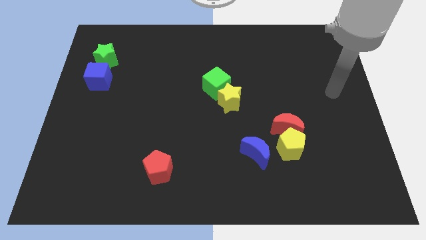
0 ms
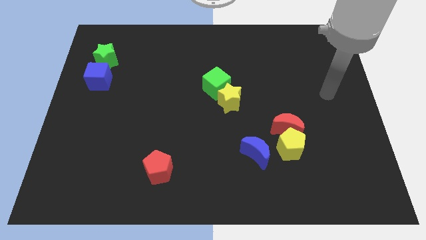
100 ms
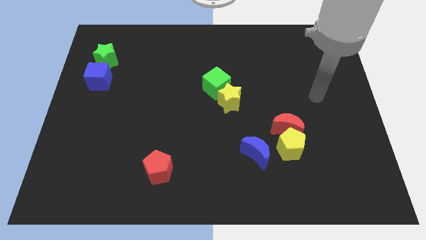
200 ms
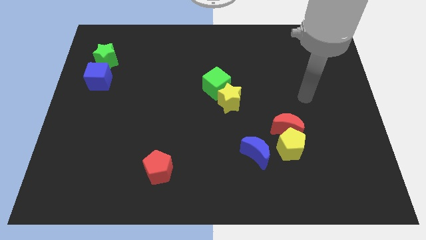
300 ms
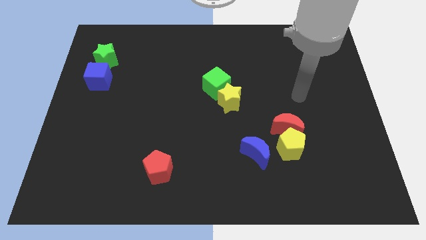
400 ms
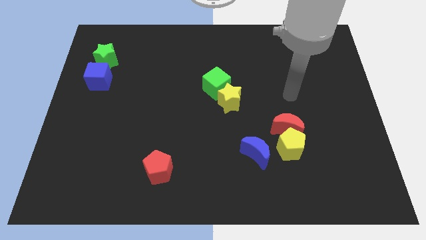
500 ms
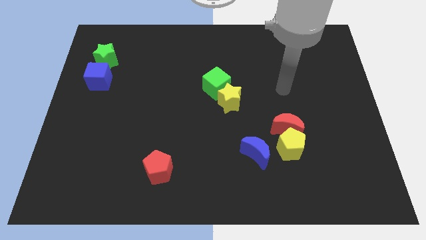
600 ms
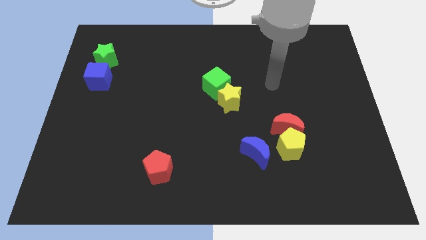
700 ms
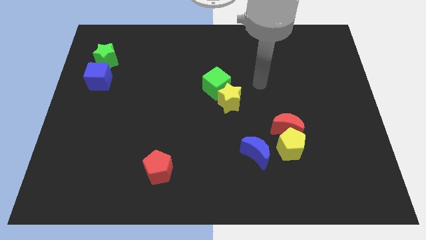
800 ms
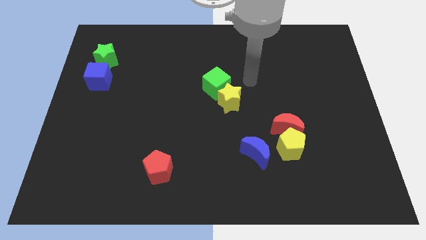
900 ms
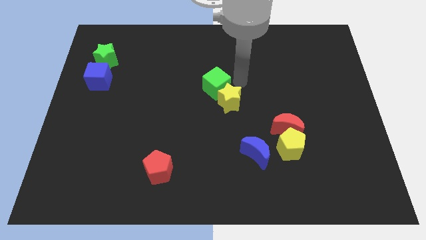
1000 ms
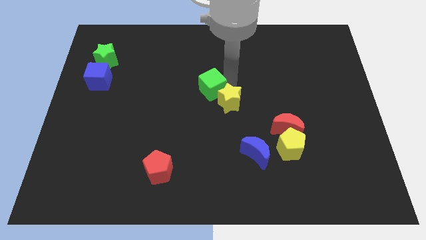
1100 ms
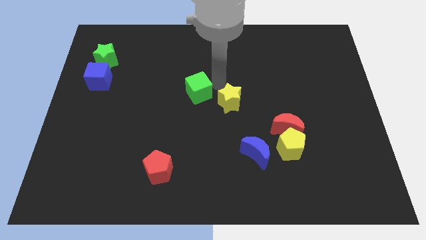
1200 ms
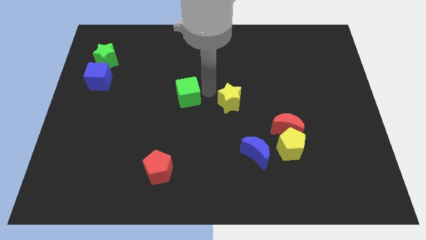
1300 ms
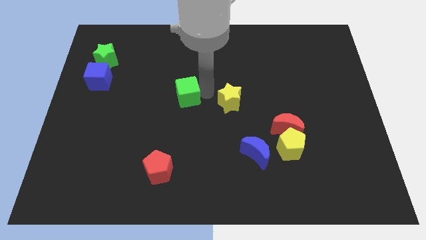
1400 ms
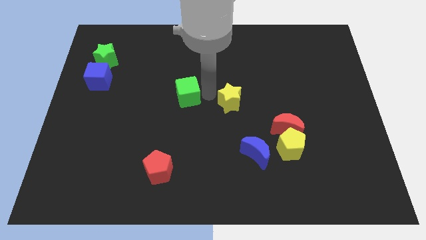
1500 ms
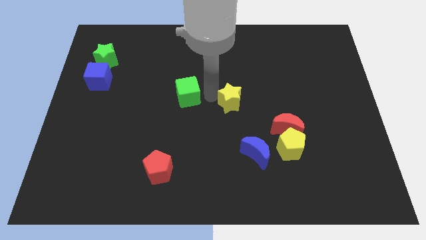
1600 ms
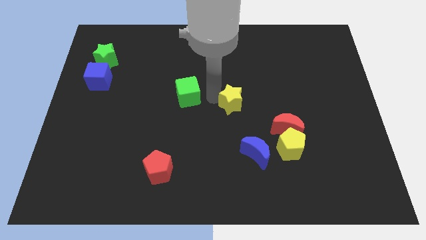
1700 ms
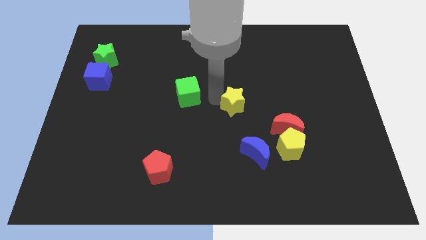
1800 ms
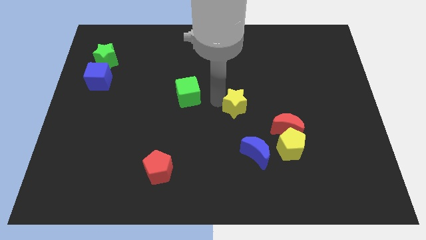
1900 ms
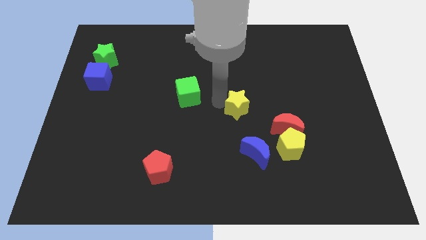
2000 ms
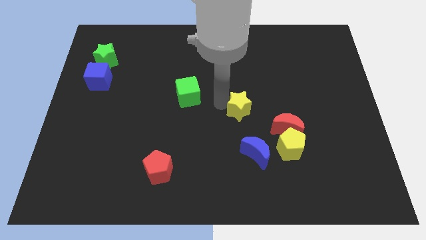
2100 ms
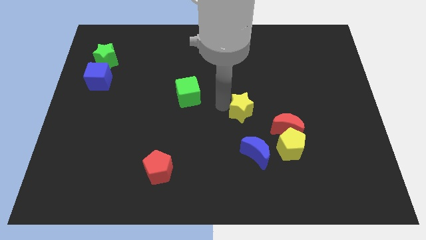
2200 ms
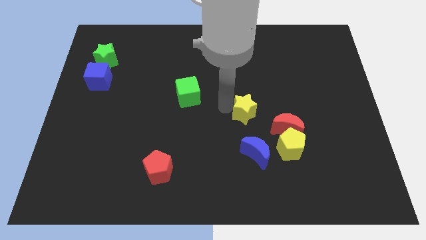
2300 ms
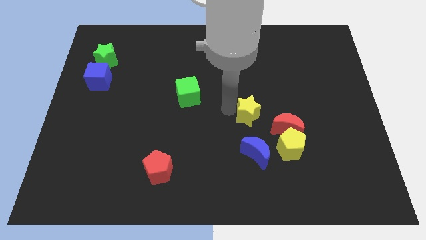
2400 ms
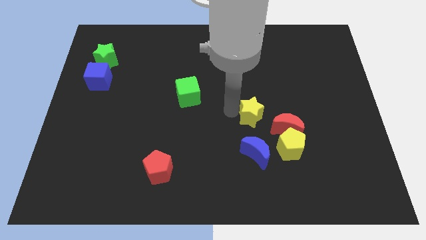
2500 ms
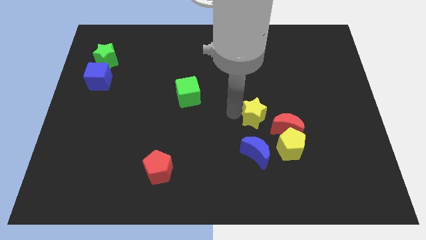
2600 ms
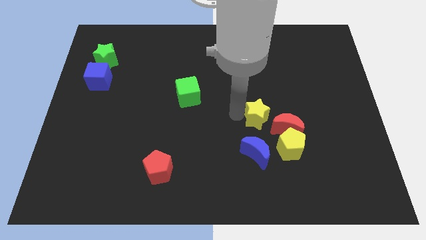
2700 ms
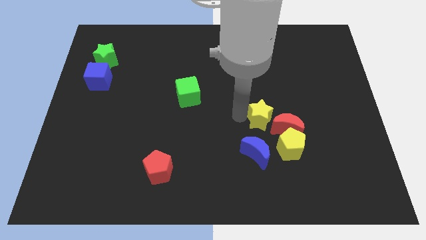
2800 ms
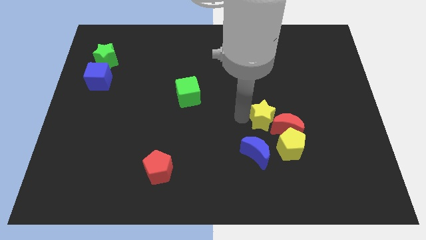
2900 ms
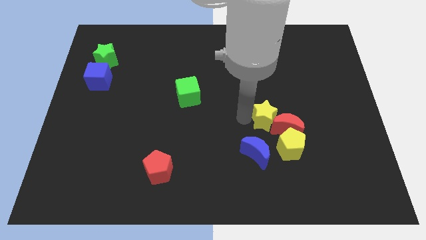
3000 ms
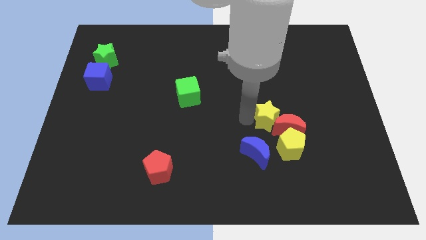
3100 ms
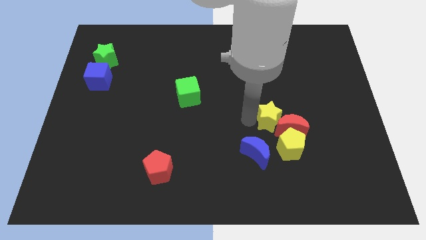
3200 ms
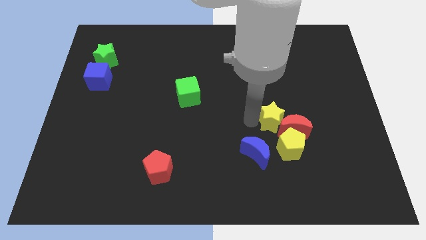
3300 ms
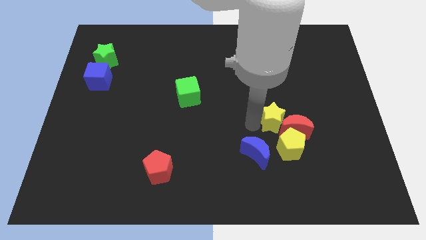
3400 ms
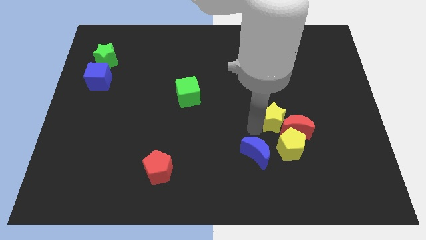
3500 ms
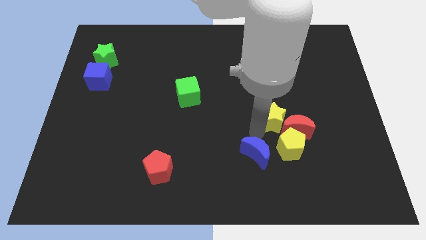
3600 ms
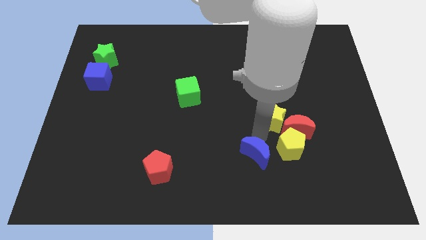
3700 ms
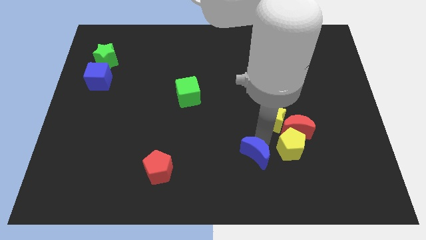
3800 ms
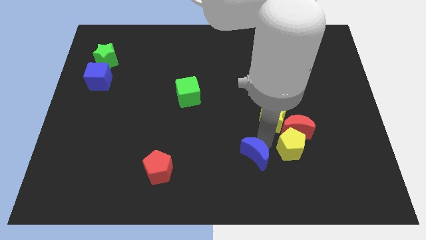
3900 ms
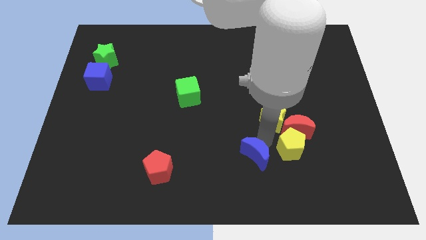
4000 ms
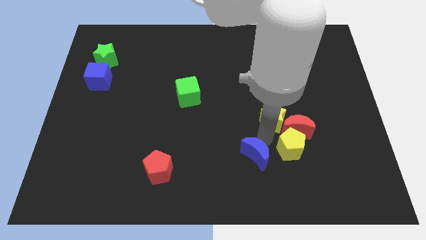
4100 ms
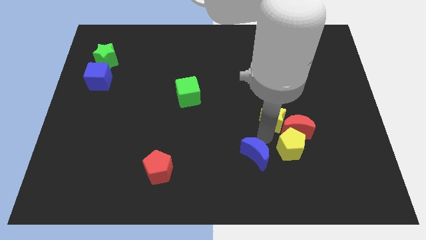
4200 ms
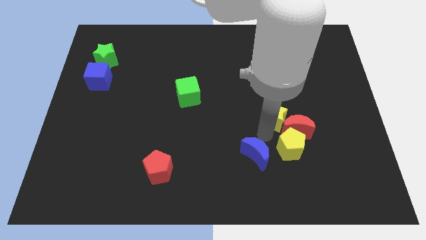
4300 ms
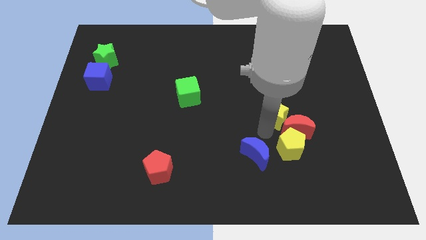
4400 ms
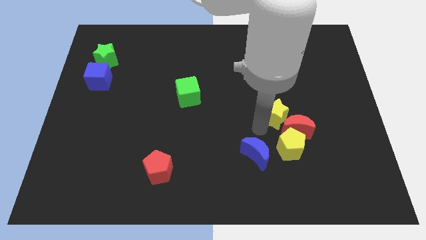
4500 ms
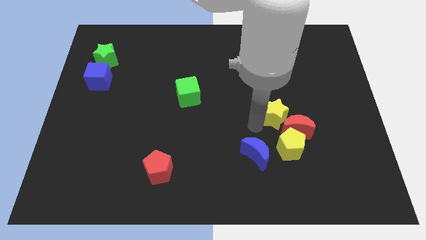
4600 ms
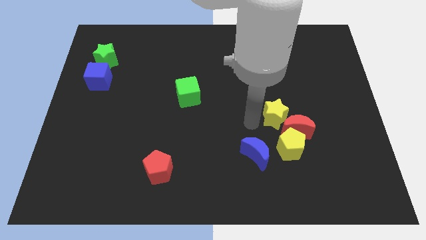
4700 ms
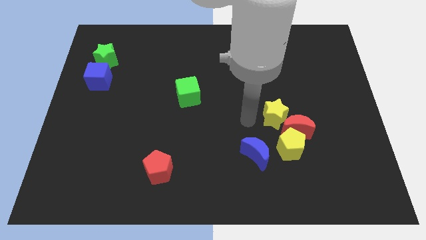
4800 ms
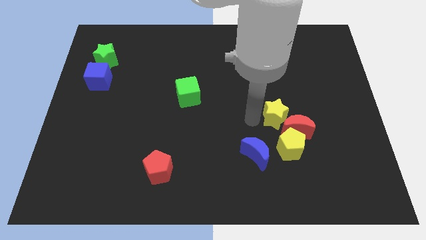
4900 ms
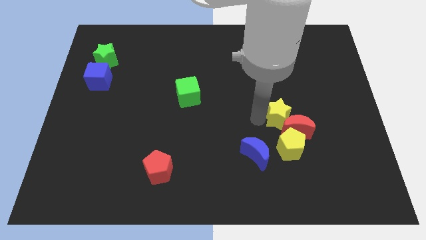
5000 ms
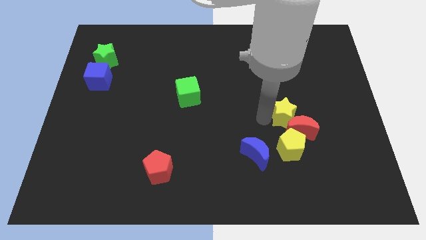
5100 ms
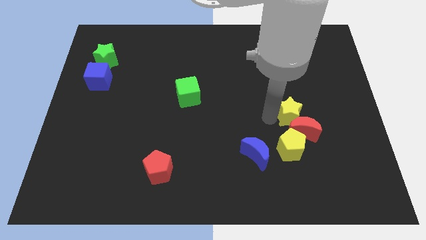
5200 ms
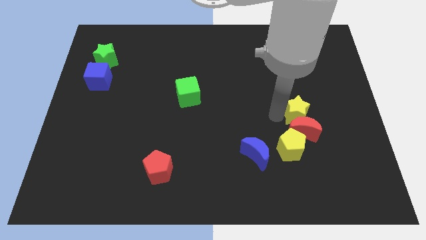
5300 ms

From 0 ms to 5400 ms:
put the yellow star diagonally up and to the right of the yellow pentagon

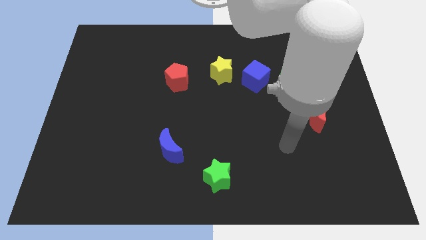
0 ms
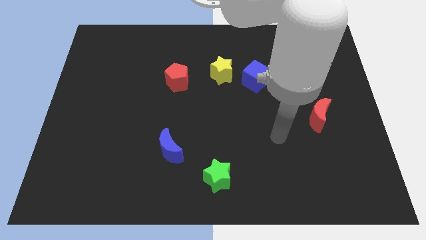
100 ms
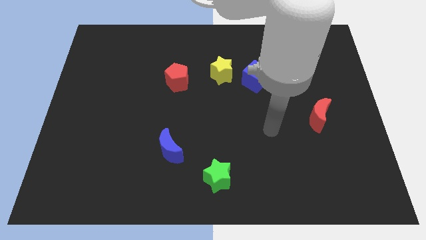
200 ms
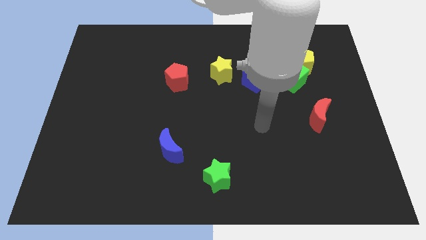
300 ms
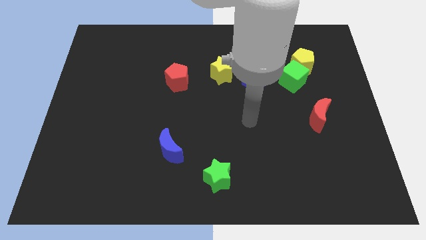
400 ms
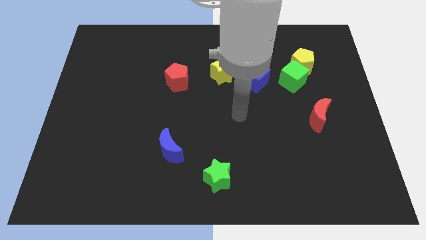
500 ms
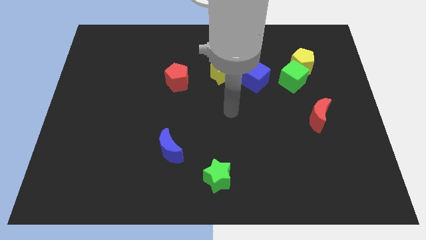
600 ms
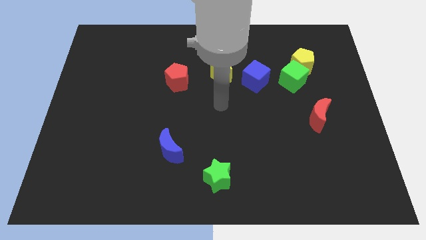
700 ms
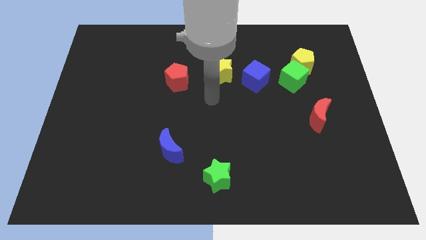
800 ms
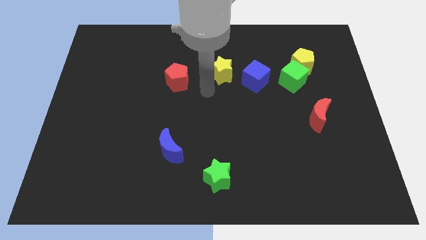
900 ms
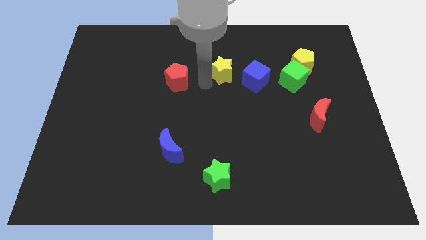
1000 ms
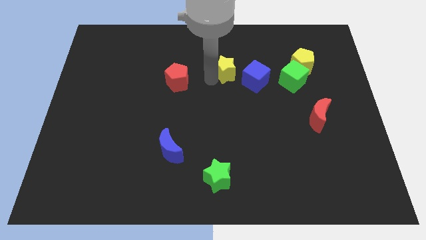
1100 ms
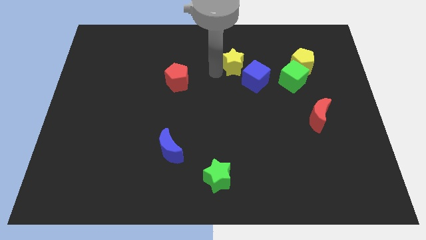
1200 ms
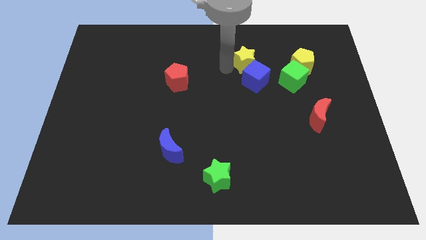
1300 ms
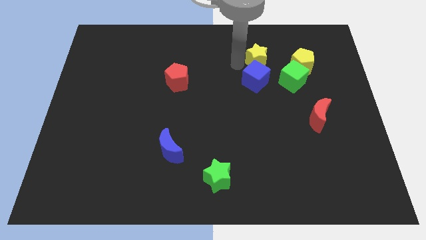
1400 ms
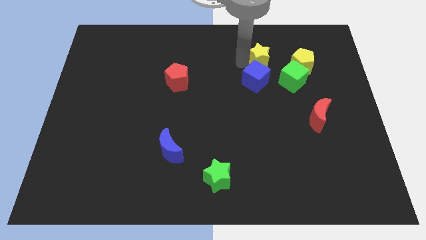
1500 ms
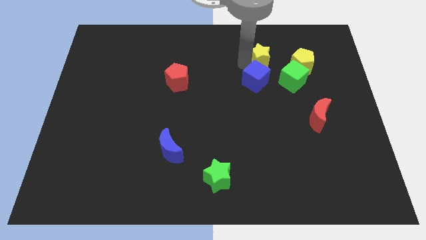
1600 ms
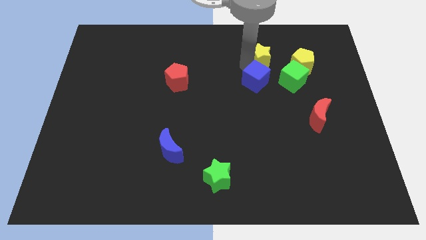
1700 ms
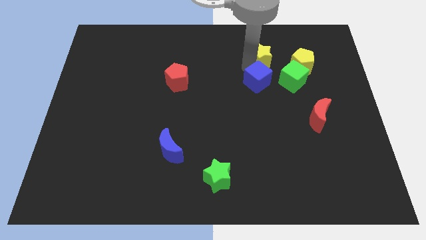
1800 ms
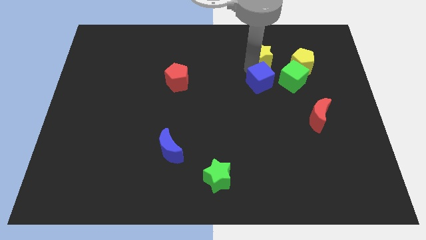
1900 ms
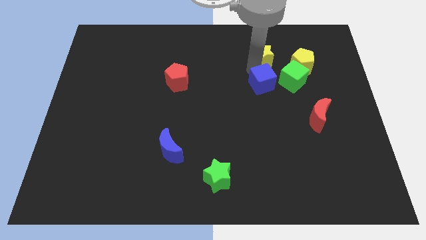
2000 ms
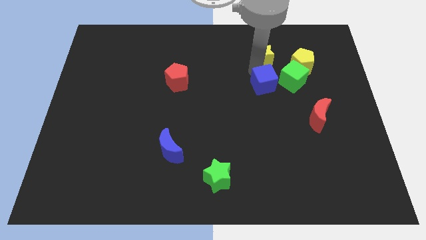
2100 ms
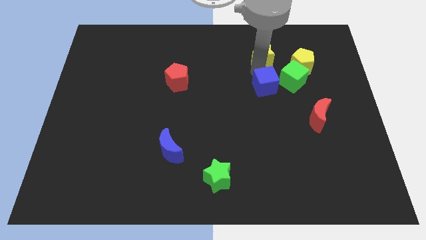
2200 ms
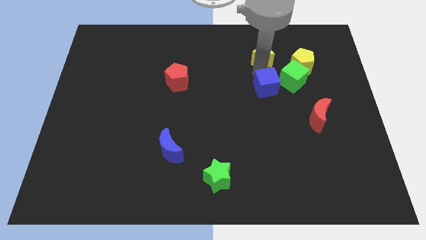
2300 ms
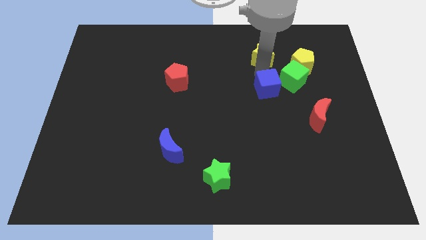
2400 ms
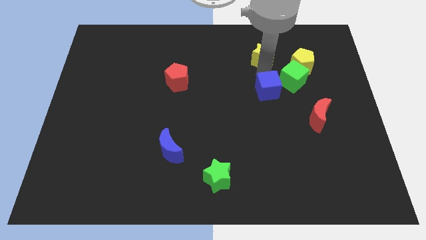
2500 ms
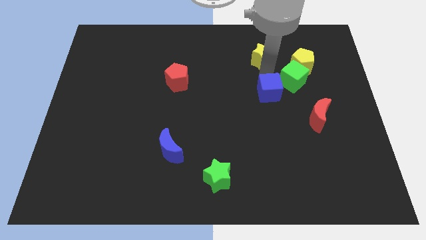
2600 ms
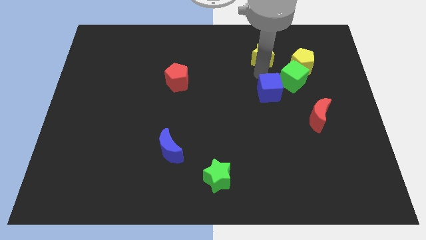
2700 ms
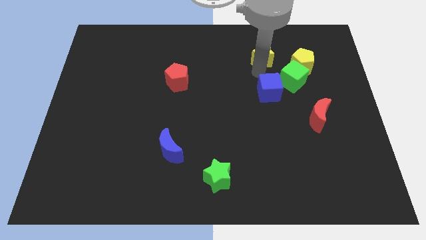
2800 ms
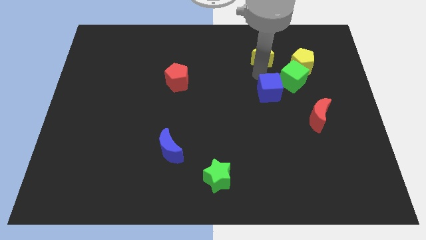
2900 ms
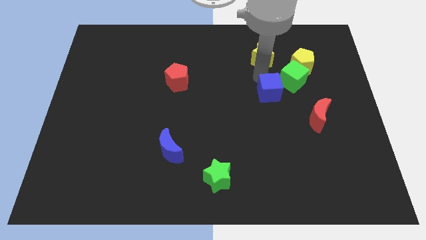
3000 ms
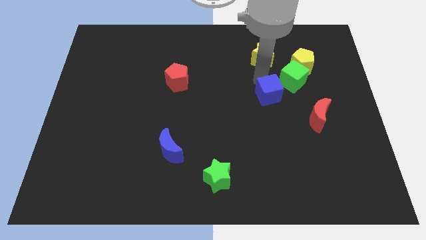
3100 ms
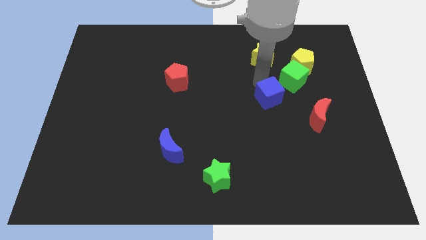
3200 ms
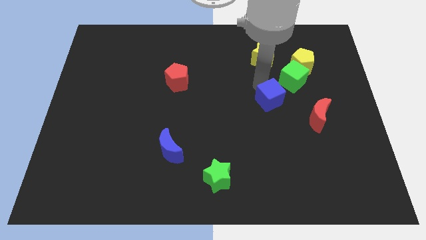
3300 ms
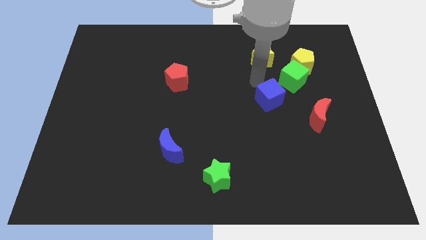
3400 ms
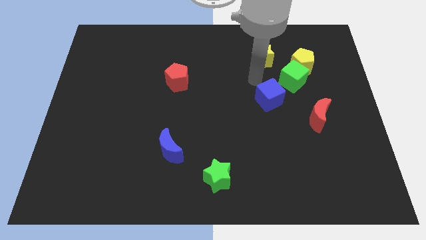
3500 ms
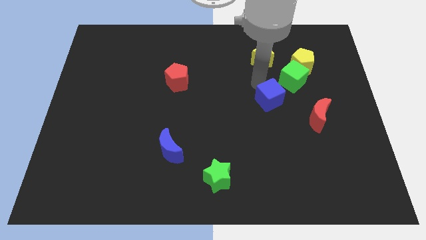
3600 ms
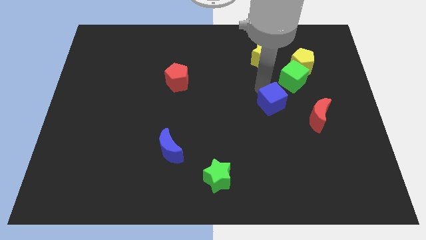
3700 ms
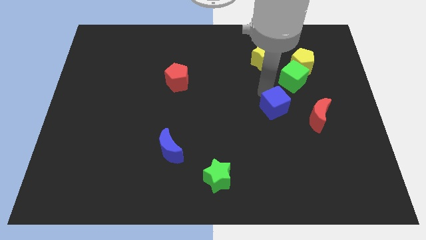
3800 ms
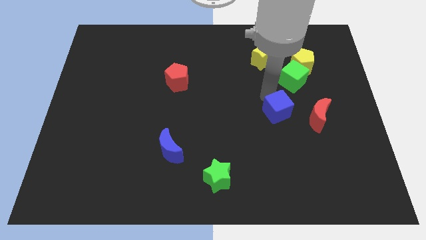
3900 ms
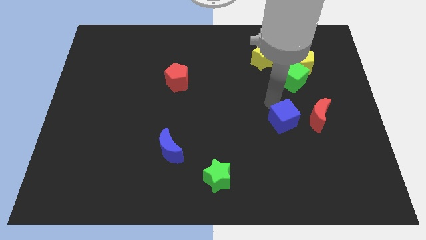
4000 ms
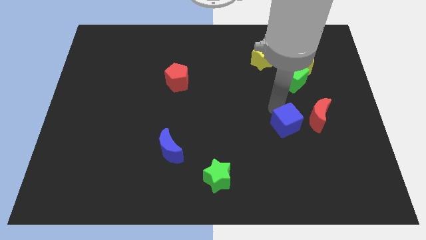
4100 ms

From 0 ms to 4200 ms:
put the blue cube to the bottom left side of the red moon
